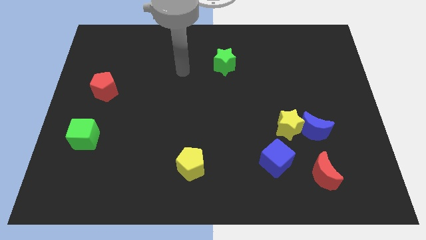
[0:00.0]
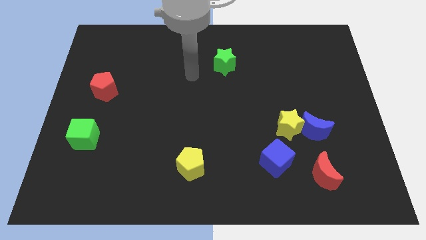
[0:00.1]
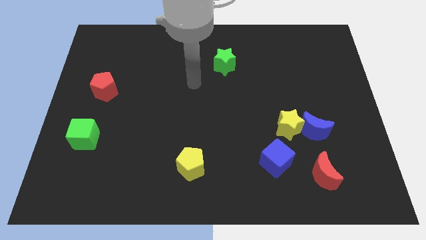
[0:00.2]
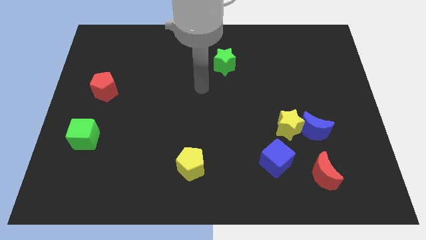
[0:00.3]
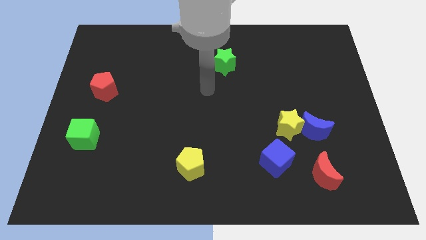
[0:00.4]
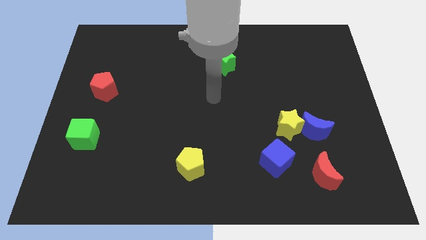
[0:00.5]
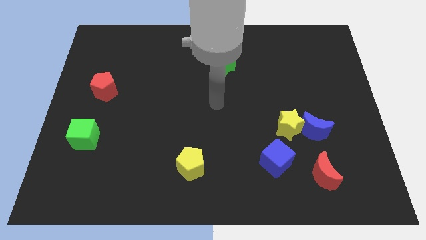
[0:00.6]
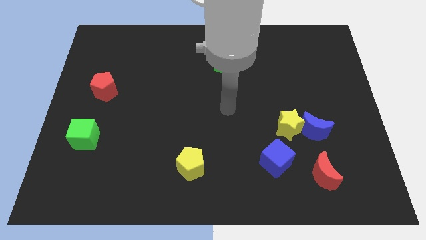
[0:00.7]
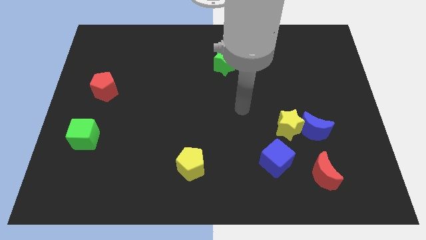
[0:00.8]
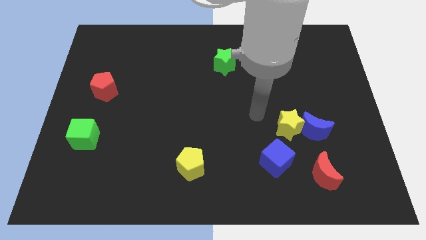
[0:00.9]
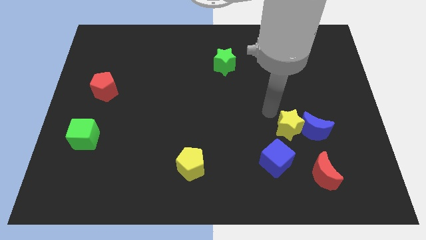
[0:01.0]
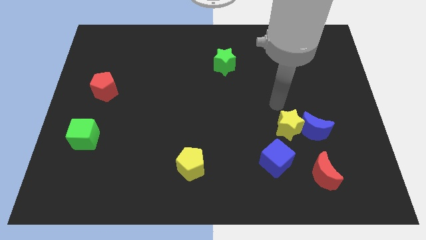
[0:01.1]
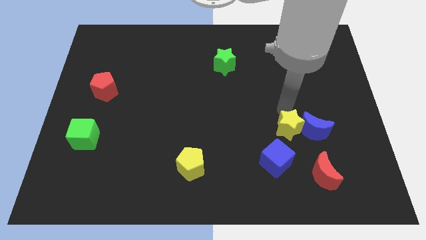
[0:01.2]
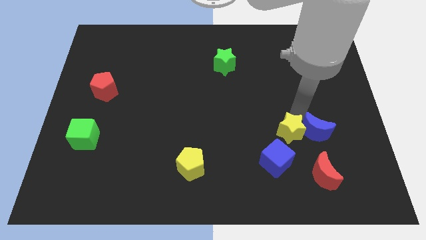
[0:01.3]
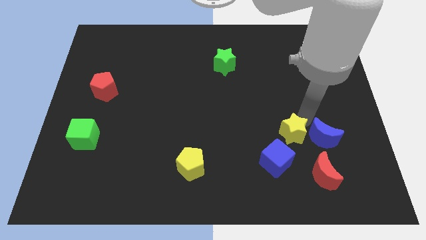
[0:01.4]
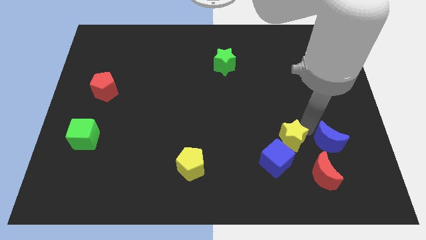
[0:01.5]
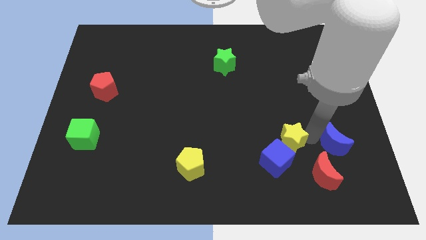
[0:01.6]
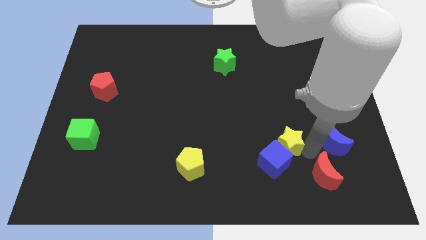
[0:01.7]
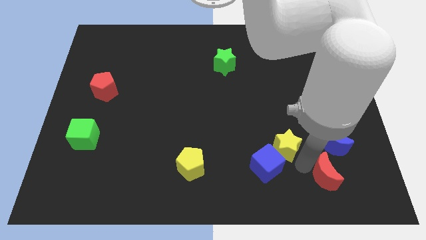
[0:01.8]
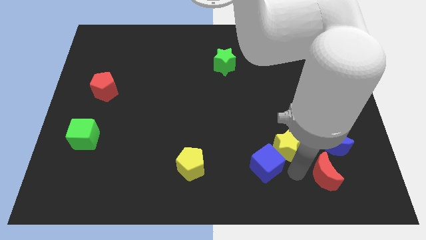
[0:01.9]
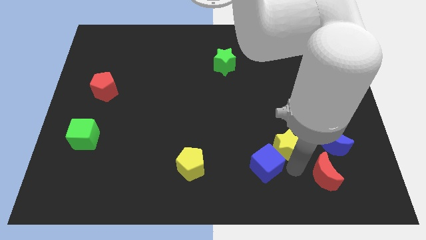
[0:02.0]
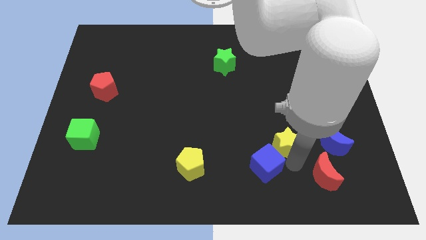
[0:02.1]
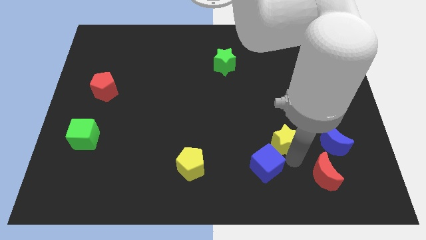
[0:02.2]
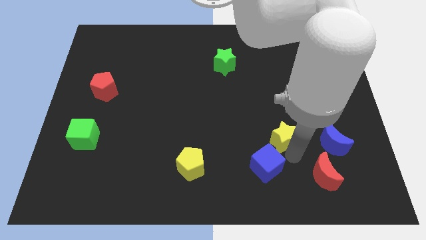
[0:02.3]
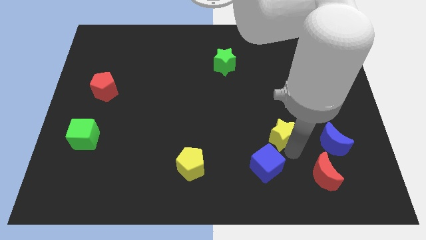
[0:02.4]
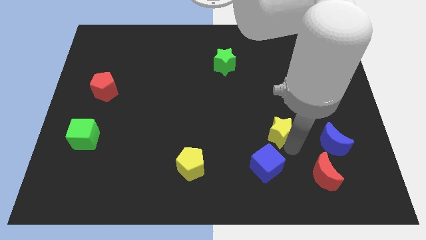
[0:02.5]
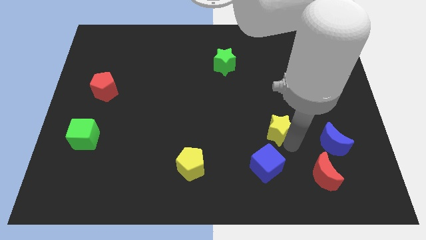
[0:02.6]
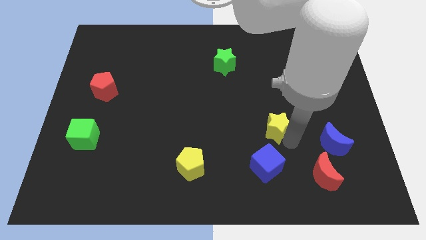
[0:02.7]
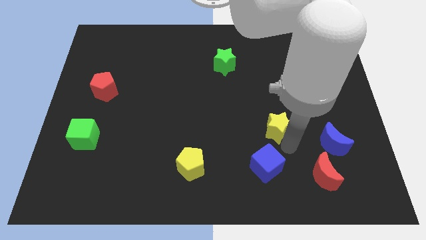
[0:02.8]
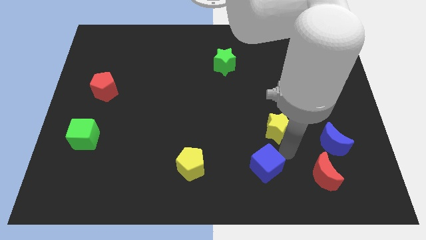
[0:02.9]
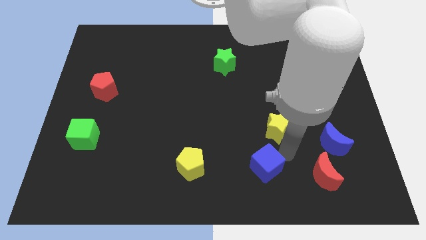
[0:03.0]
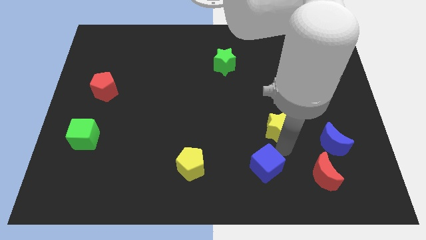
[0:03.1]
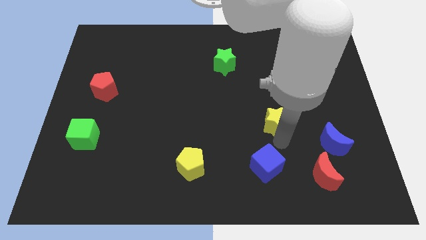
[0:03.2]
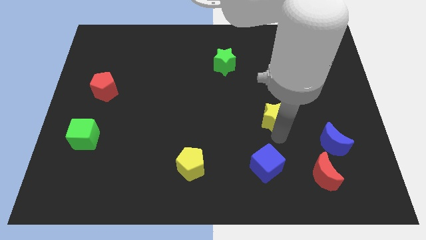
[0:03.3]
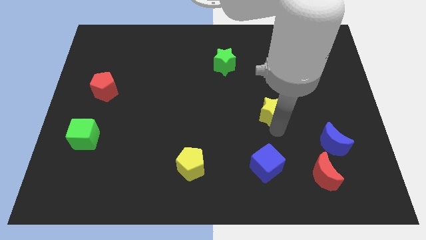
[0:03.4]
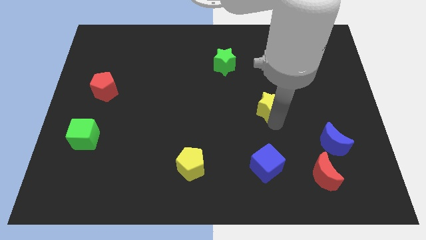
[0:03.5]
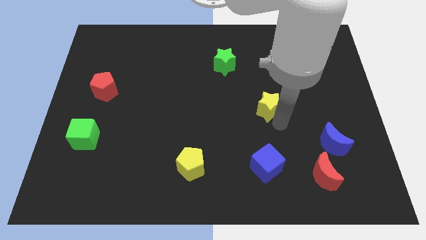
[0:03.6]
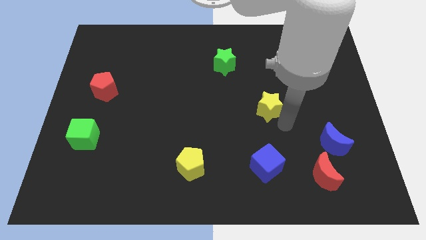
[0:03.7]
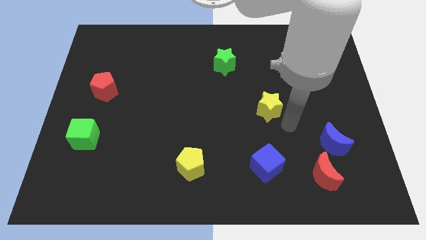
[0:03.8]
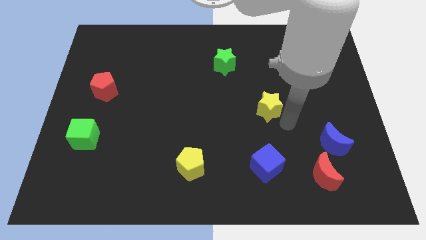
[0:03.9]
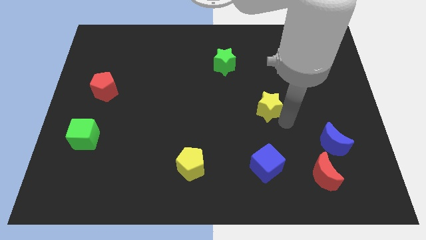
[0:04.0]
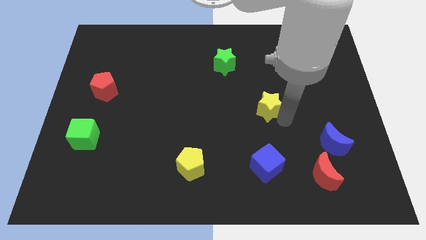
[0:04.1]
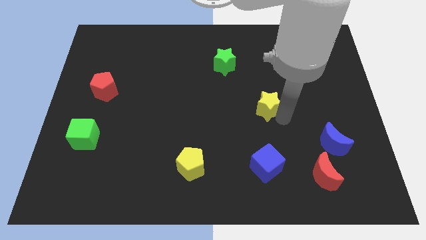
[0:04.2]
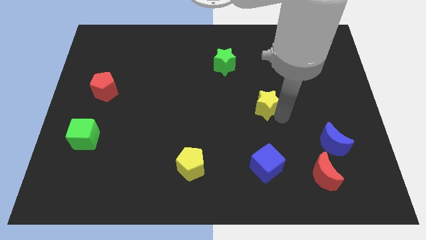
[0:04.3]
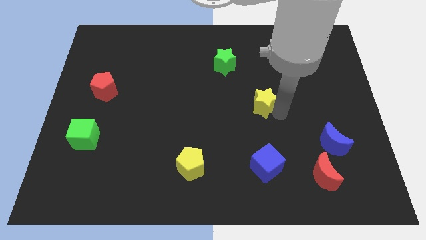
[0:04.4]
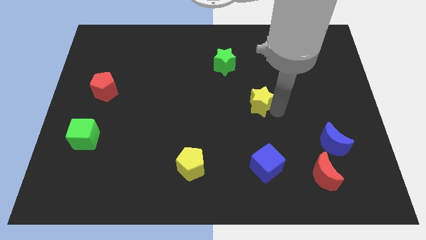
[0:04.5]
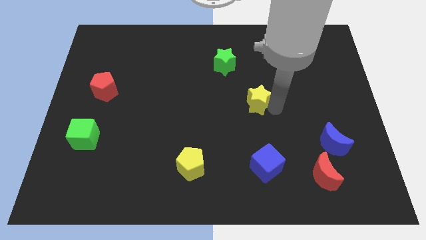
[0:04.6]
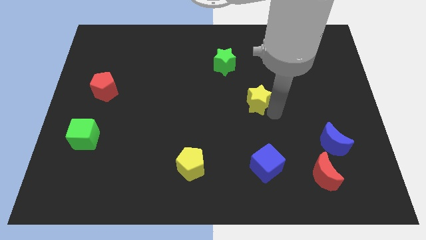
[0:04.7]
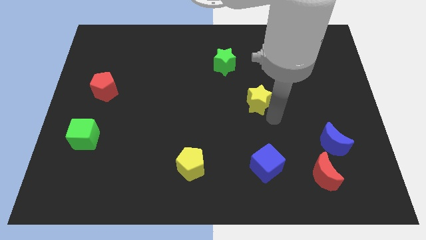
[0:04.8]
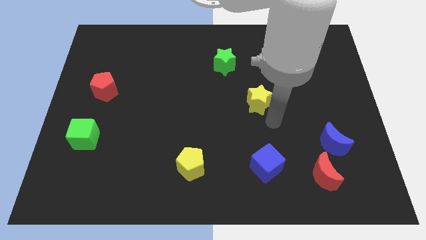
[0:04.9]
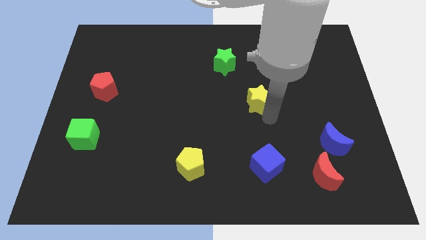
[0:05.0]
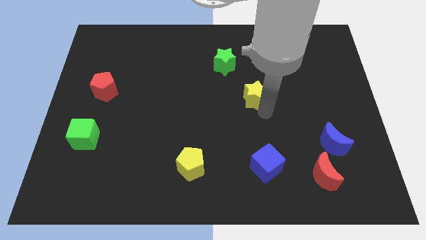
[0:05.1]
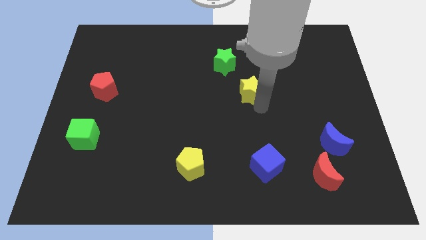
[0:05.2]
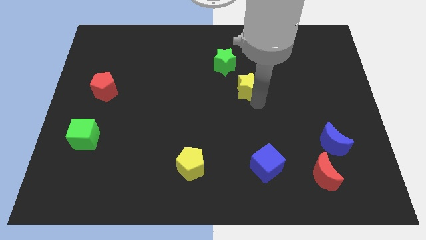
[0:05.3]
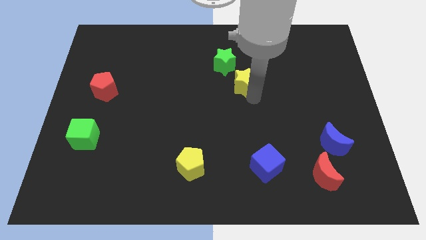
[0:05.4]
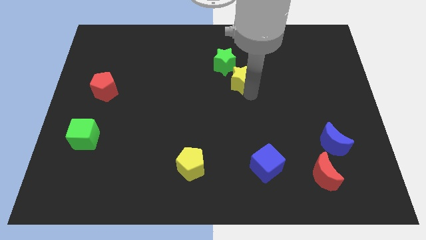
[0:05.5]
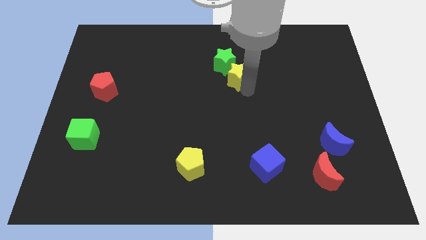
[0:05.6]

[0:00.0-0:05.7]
slide the yellow star close to the green star

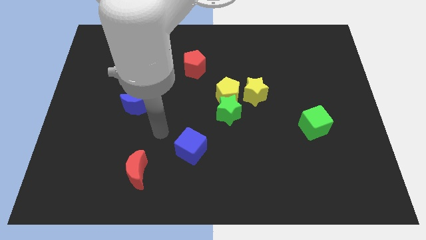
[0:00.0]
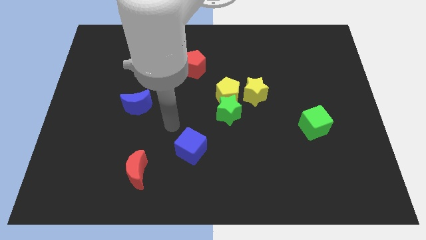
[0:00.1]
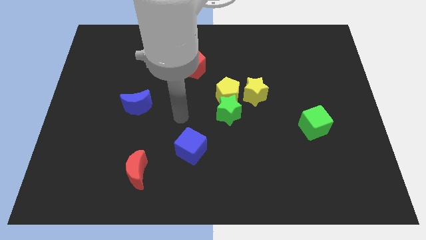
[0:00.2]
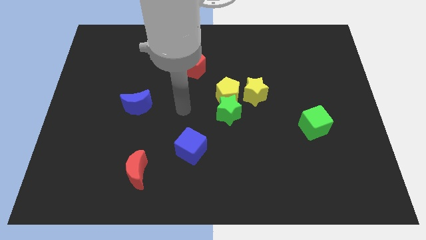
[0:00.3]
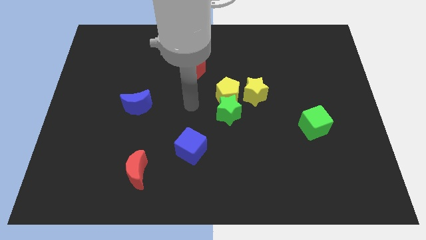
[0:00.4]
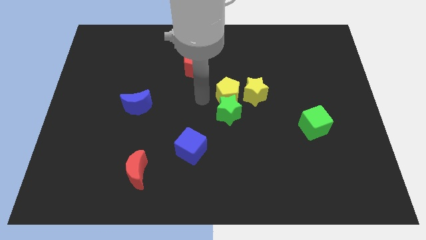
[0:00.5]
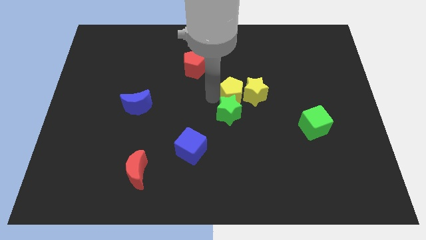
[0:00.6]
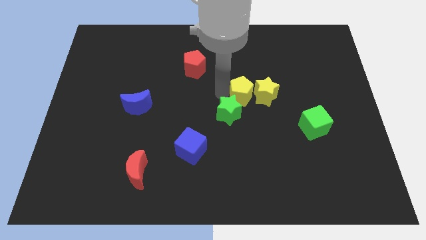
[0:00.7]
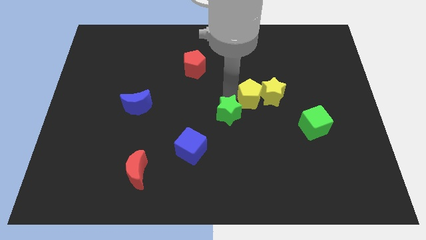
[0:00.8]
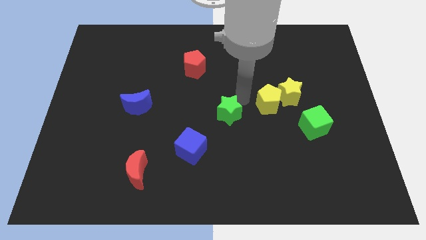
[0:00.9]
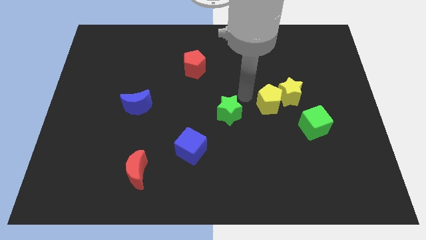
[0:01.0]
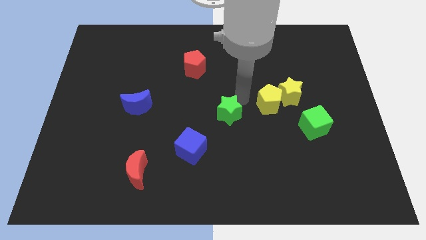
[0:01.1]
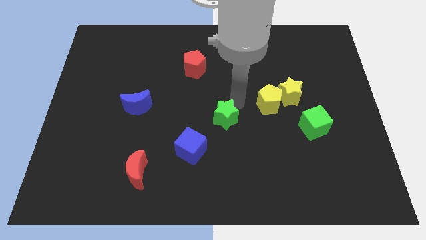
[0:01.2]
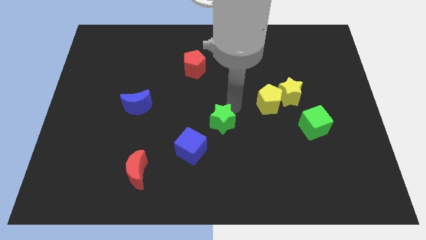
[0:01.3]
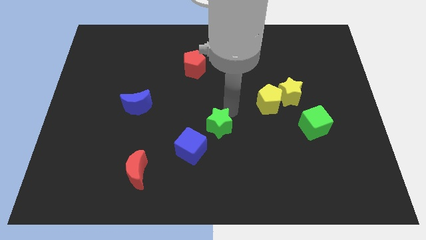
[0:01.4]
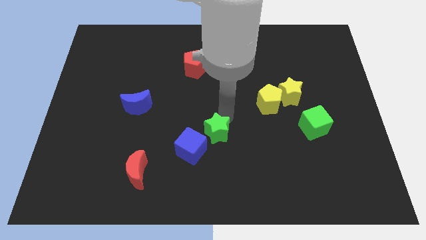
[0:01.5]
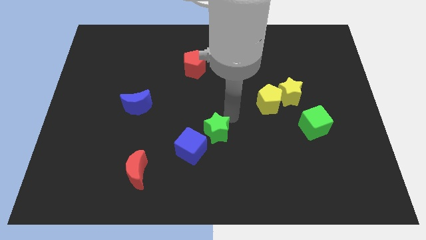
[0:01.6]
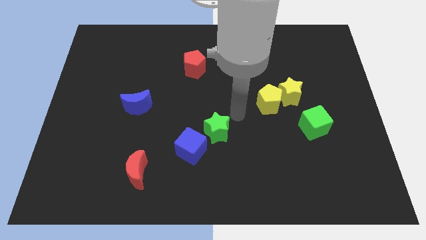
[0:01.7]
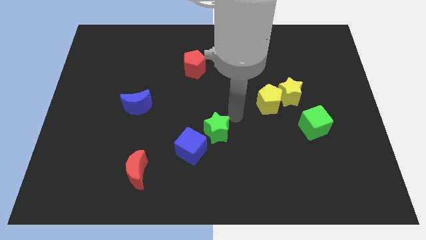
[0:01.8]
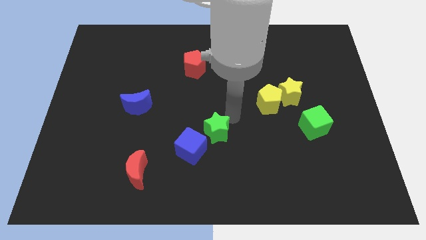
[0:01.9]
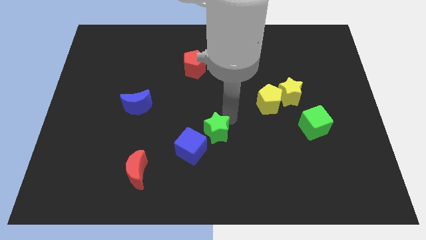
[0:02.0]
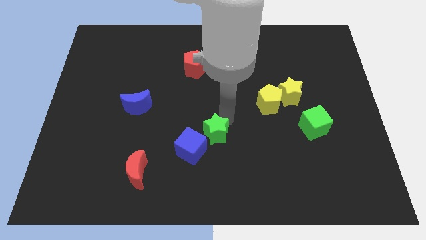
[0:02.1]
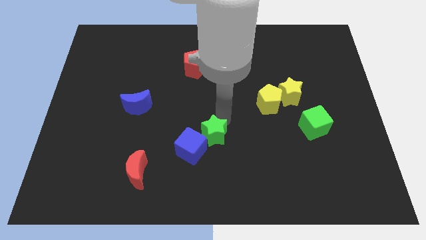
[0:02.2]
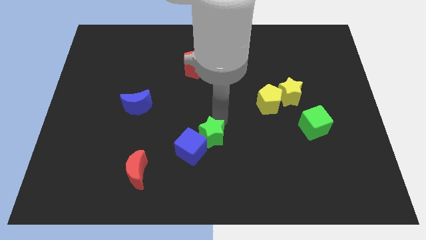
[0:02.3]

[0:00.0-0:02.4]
move the green star to the blue cube

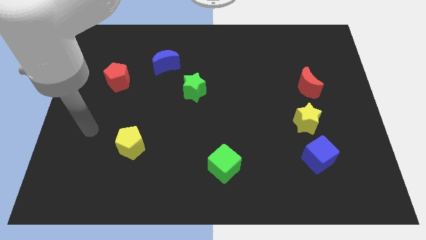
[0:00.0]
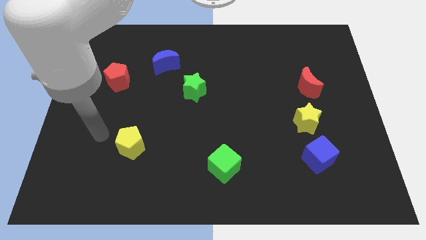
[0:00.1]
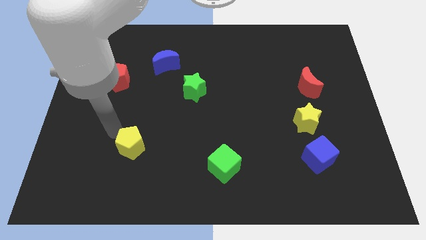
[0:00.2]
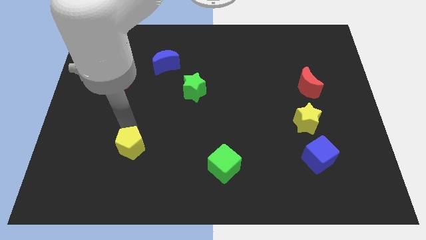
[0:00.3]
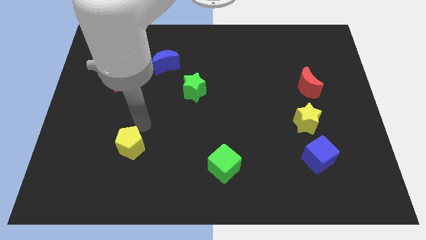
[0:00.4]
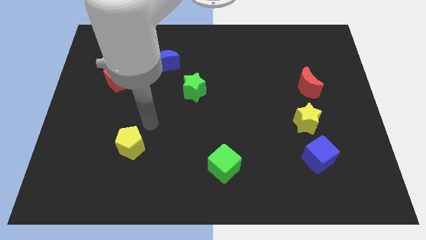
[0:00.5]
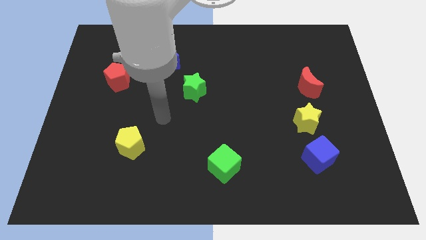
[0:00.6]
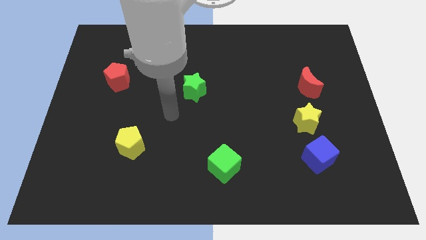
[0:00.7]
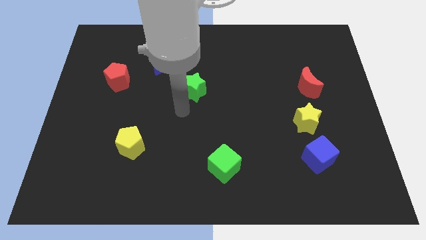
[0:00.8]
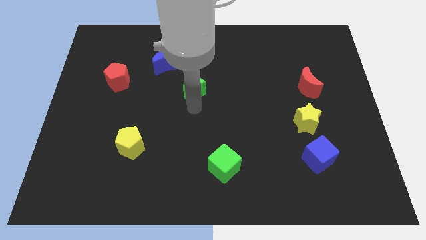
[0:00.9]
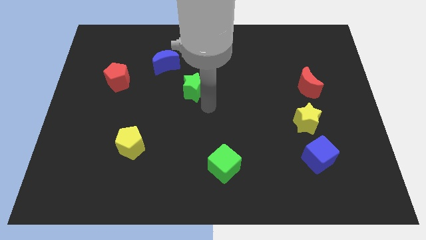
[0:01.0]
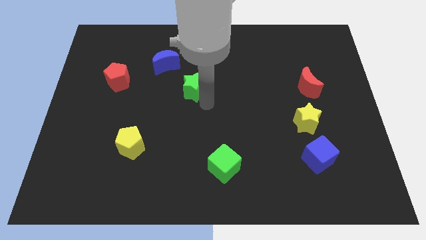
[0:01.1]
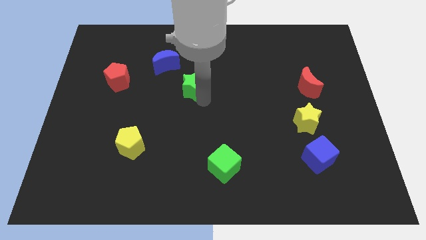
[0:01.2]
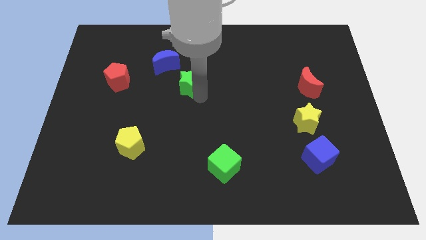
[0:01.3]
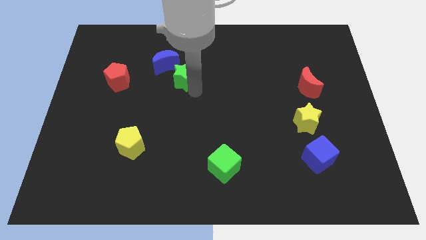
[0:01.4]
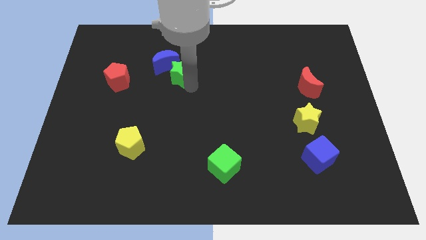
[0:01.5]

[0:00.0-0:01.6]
slide the green star next to the blue moon
